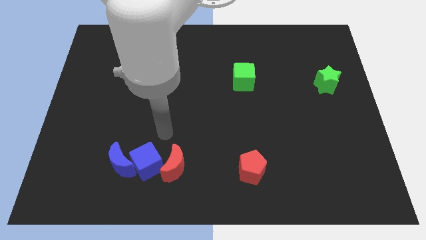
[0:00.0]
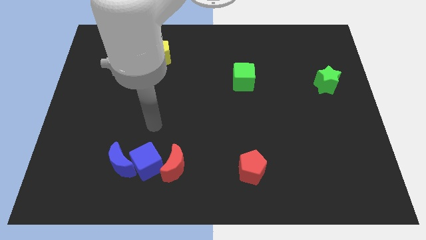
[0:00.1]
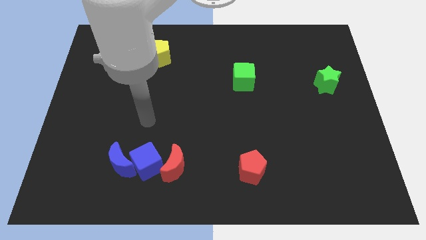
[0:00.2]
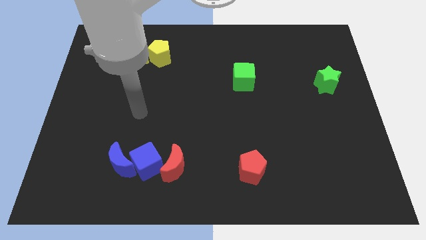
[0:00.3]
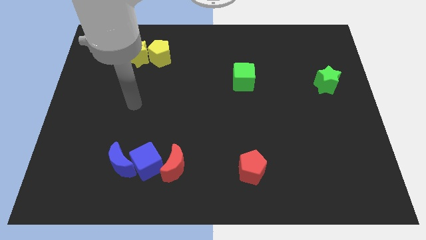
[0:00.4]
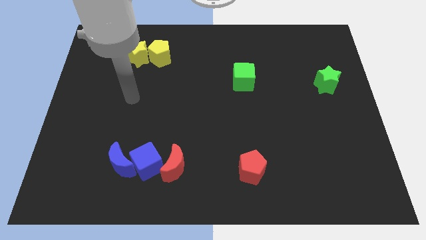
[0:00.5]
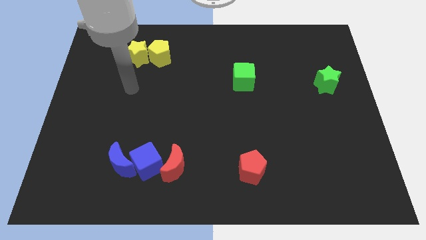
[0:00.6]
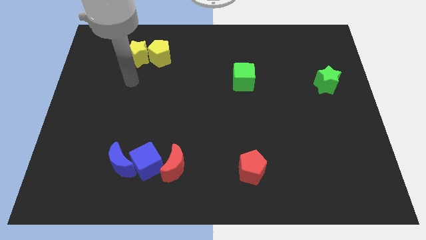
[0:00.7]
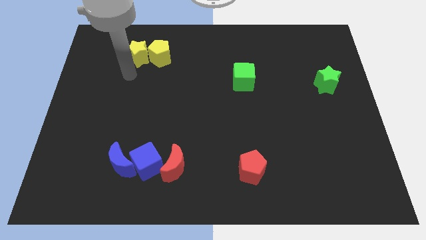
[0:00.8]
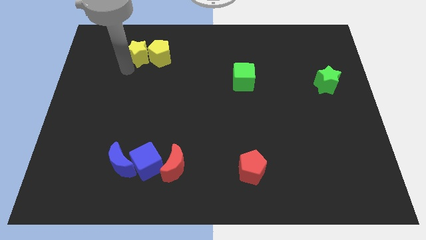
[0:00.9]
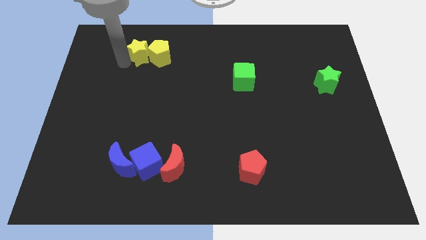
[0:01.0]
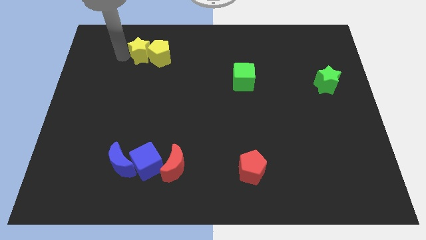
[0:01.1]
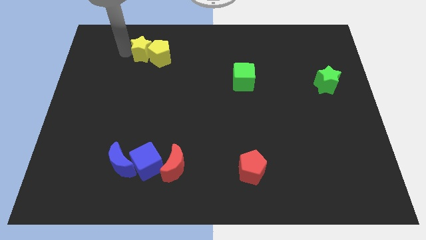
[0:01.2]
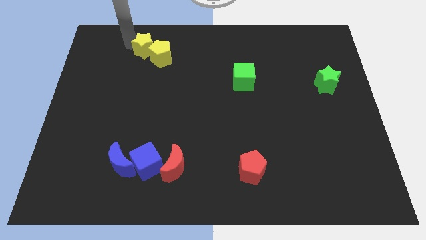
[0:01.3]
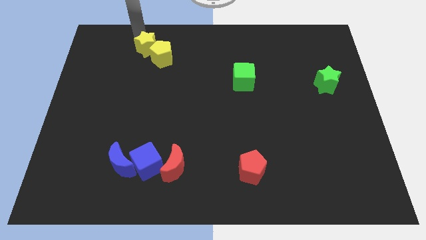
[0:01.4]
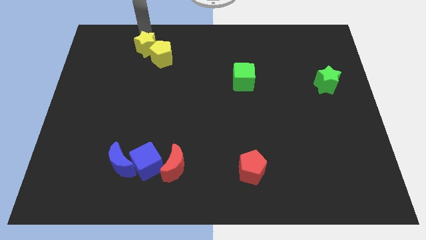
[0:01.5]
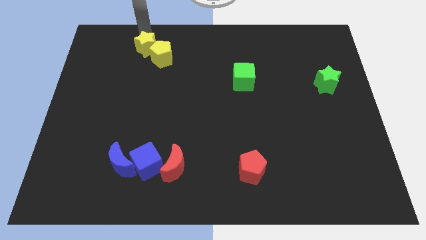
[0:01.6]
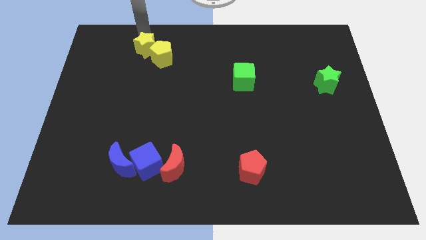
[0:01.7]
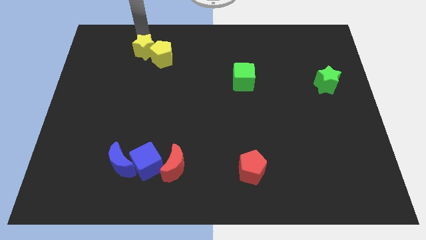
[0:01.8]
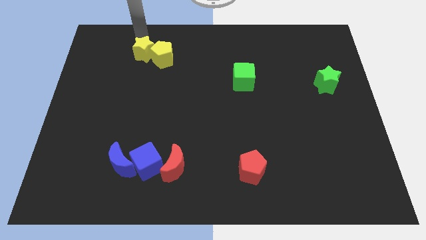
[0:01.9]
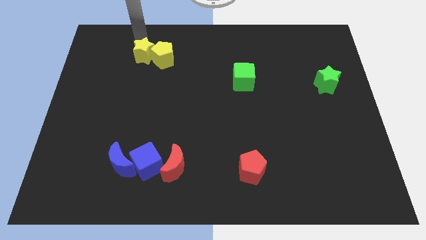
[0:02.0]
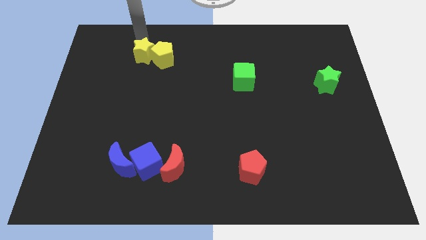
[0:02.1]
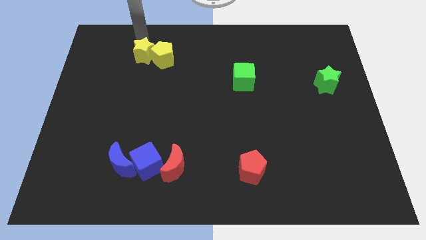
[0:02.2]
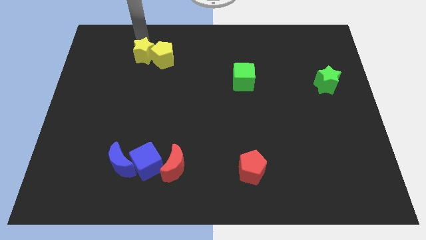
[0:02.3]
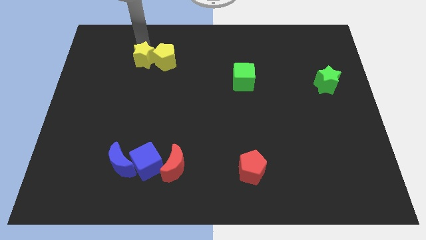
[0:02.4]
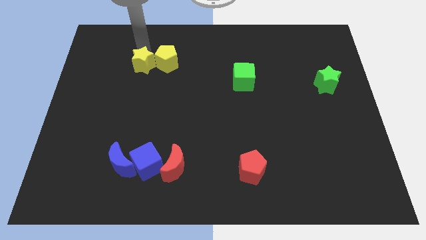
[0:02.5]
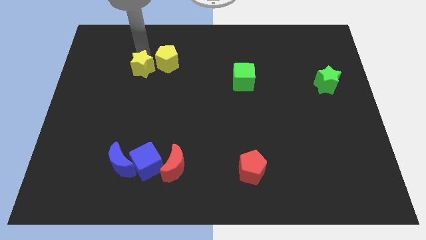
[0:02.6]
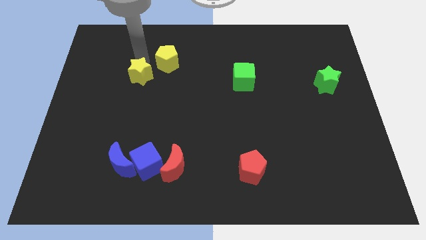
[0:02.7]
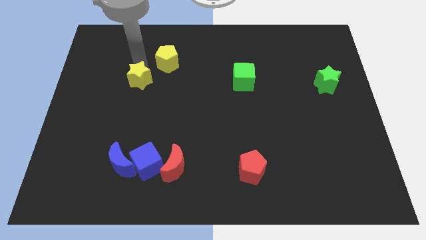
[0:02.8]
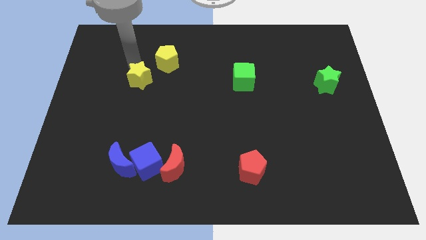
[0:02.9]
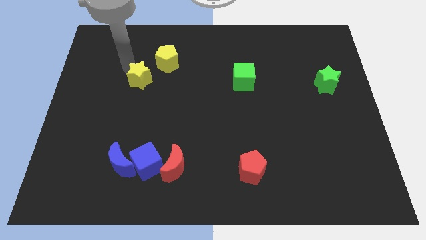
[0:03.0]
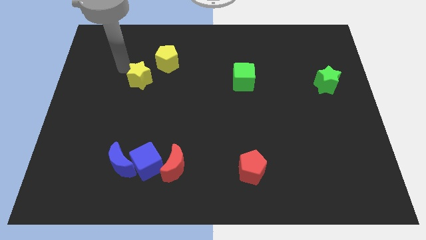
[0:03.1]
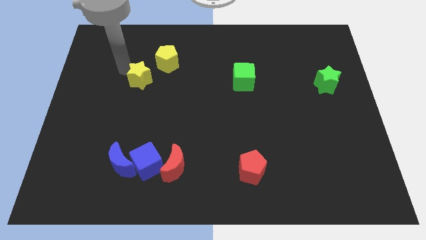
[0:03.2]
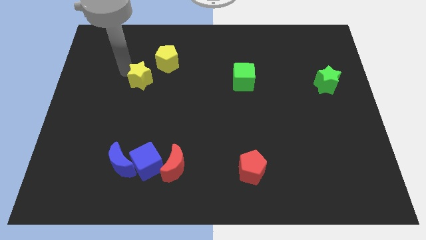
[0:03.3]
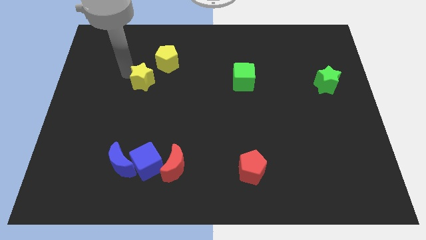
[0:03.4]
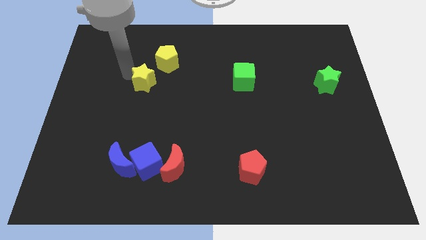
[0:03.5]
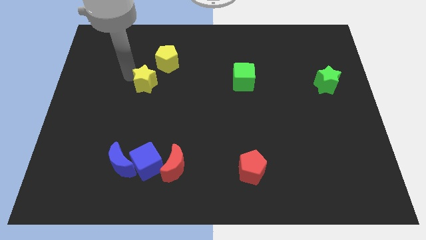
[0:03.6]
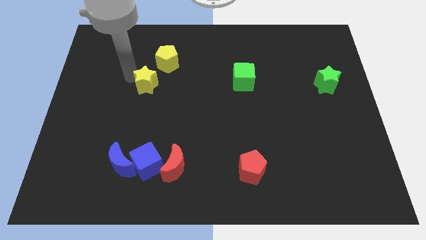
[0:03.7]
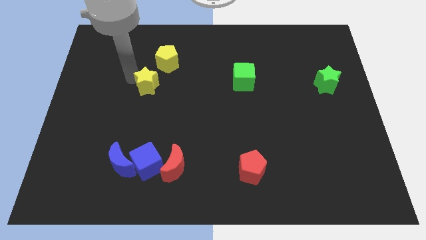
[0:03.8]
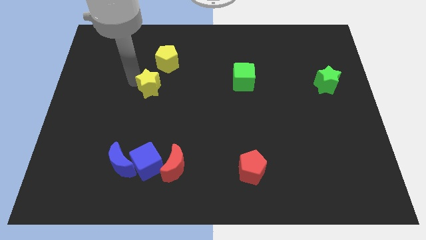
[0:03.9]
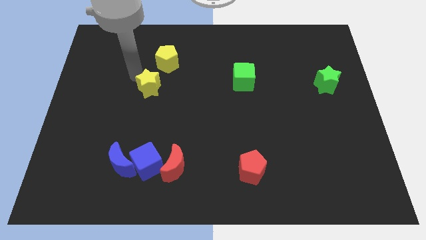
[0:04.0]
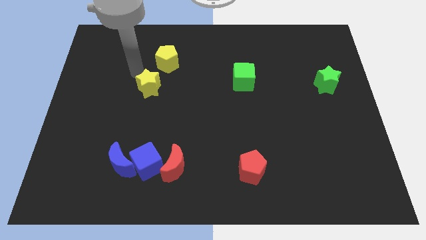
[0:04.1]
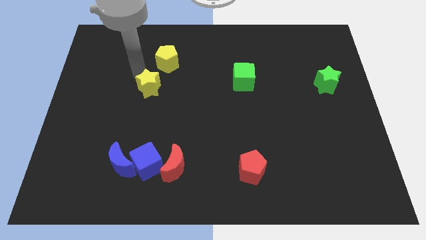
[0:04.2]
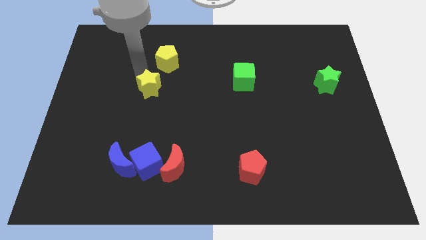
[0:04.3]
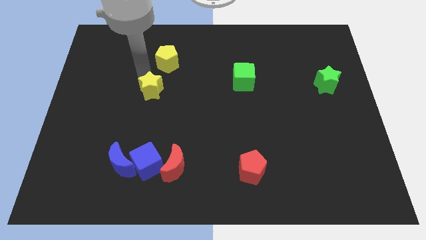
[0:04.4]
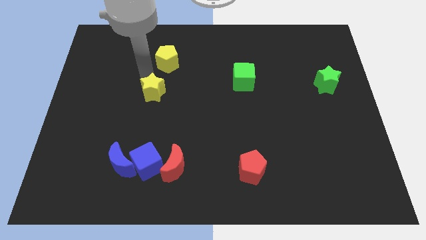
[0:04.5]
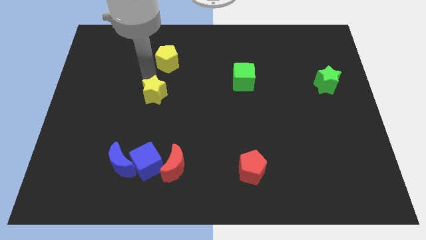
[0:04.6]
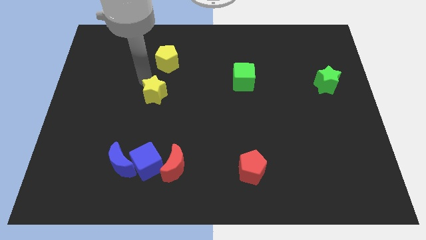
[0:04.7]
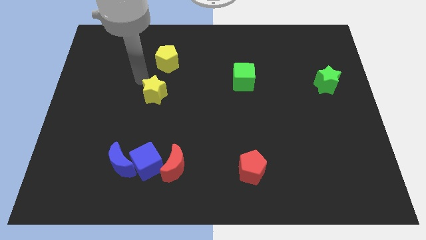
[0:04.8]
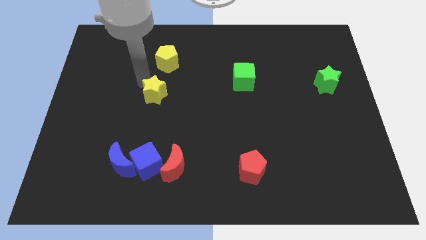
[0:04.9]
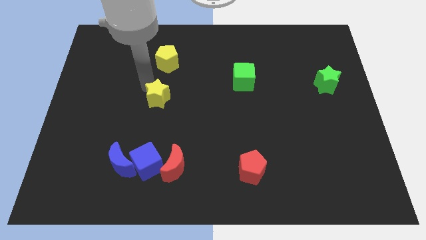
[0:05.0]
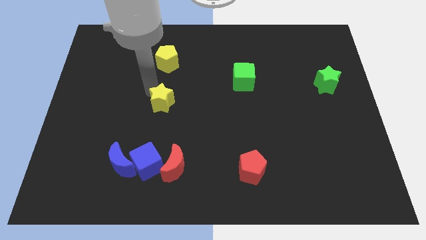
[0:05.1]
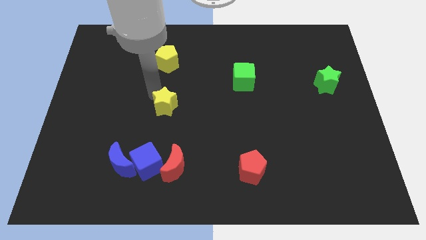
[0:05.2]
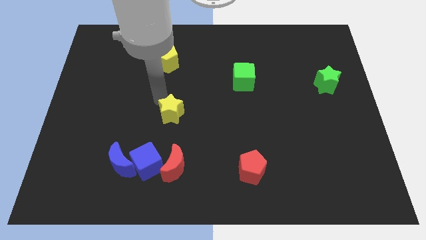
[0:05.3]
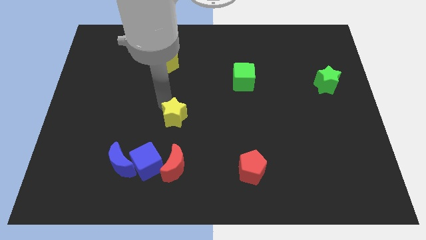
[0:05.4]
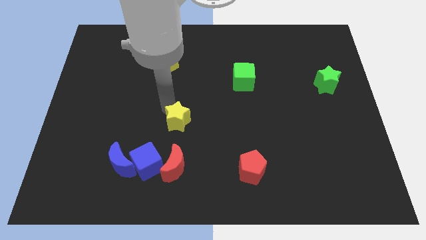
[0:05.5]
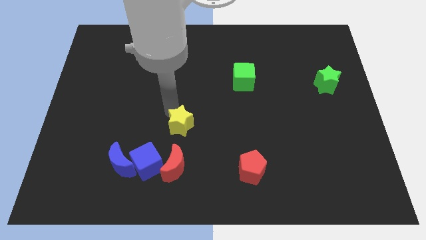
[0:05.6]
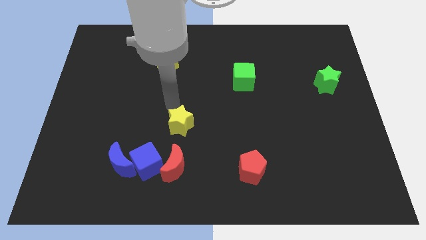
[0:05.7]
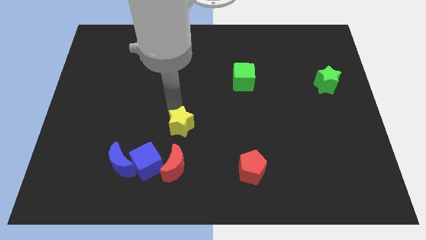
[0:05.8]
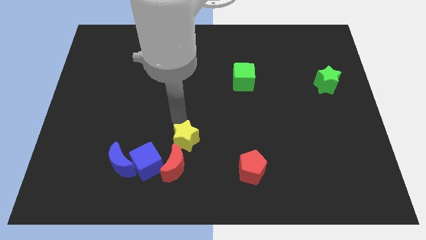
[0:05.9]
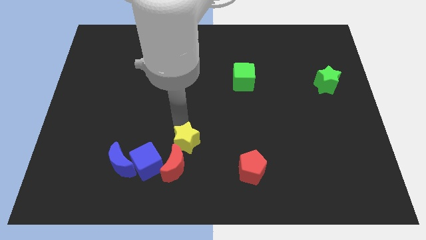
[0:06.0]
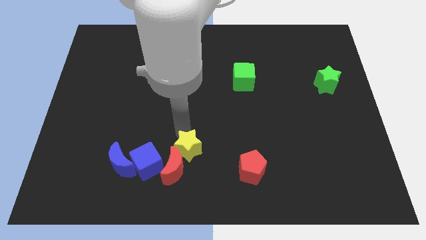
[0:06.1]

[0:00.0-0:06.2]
move the yellow star right of the blue cube
